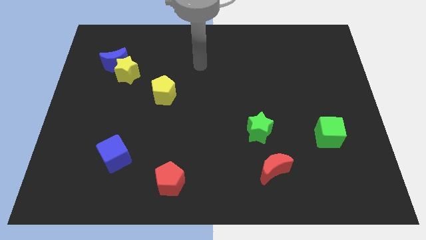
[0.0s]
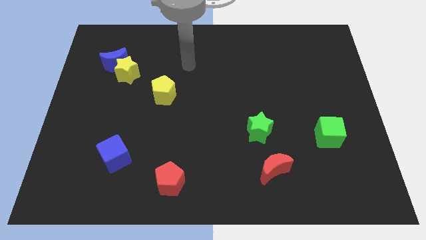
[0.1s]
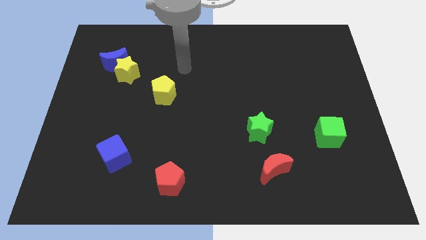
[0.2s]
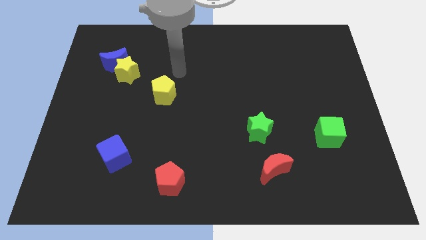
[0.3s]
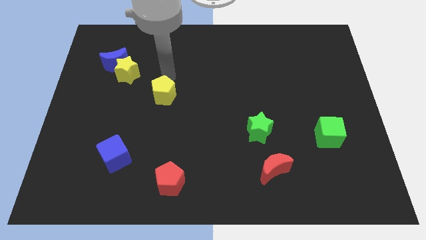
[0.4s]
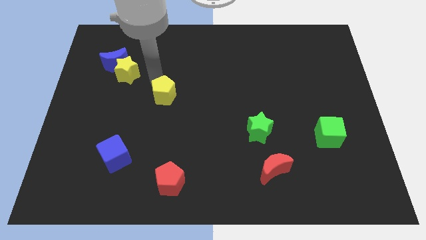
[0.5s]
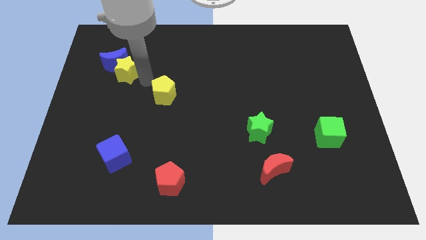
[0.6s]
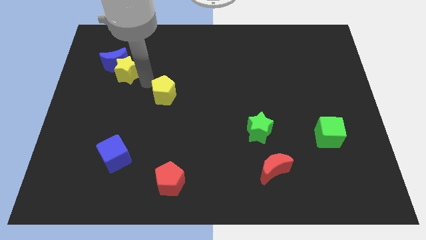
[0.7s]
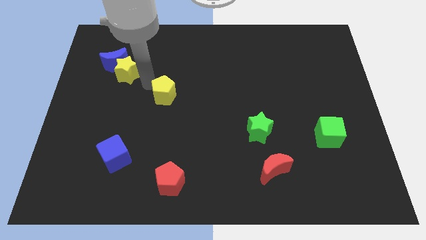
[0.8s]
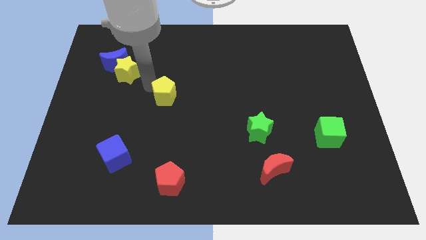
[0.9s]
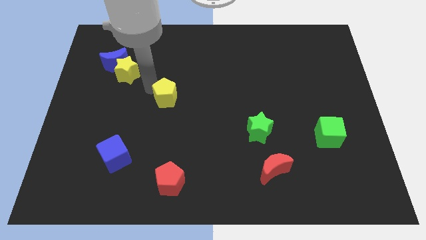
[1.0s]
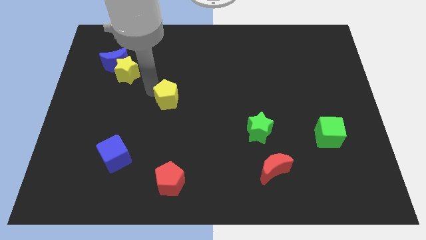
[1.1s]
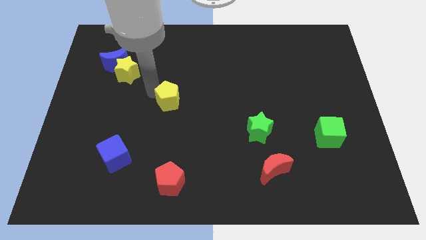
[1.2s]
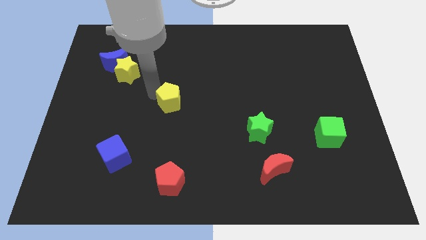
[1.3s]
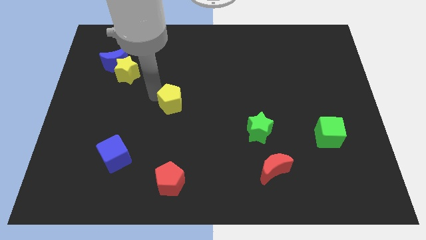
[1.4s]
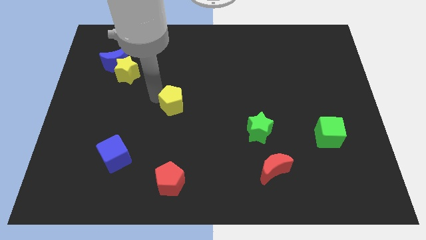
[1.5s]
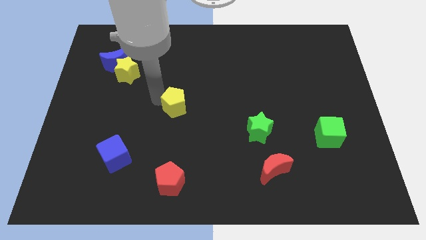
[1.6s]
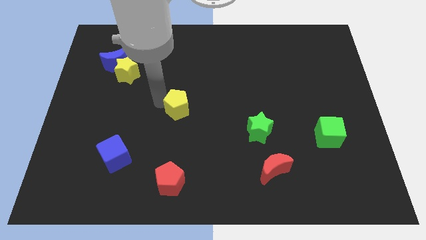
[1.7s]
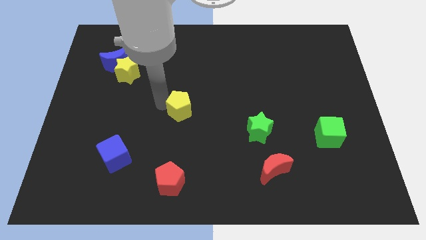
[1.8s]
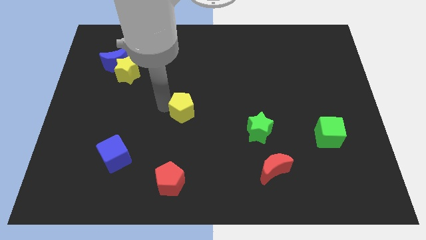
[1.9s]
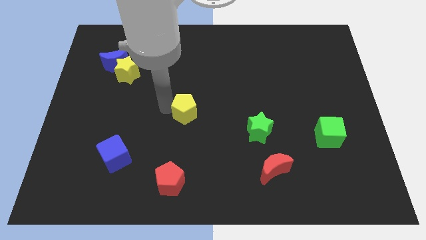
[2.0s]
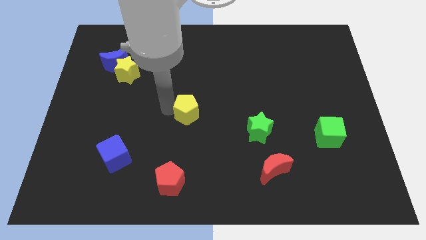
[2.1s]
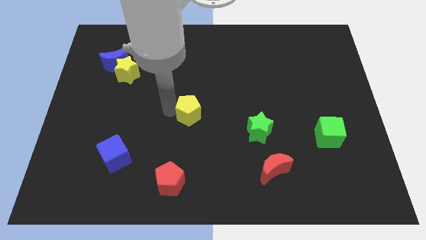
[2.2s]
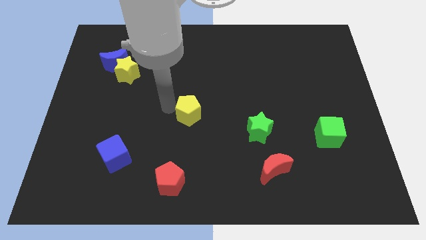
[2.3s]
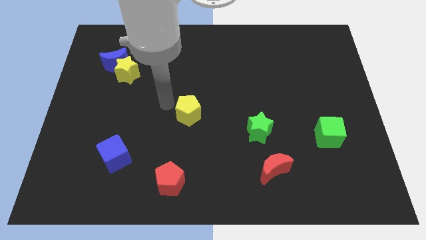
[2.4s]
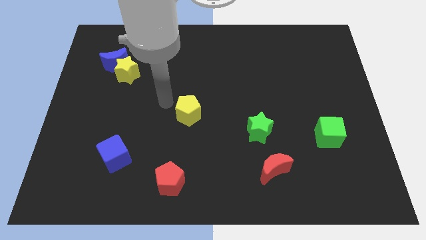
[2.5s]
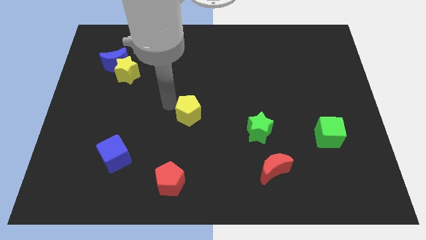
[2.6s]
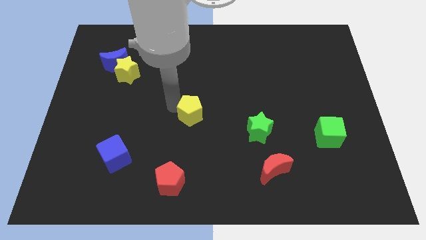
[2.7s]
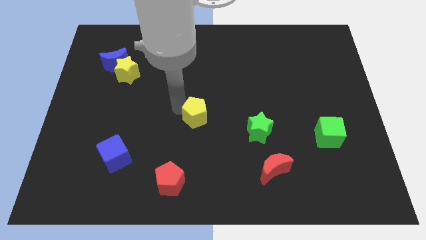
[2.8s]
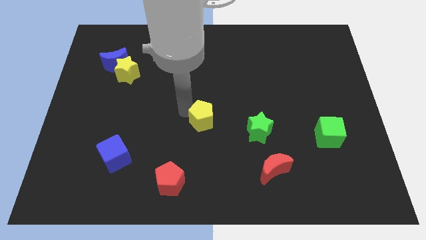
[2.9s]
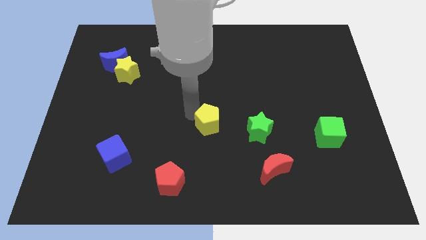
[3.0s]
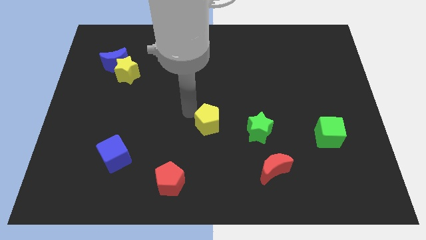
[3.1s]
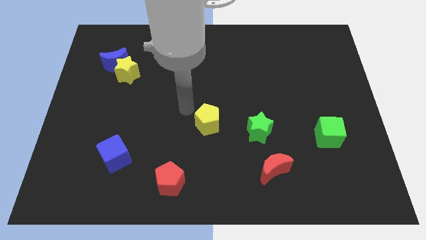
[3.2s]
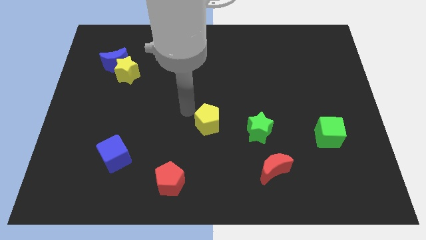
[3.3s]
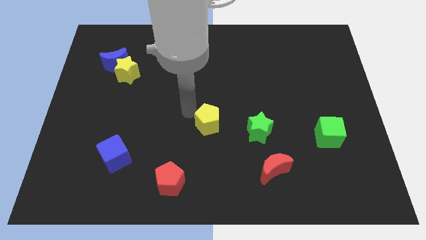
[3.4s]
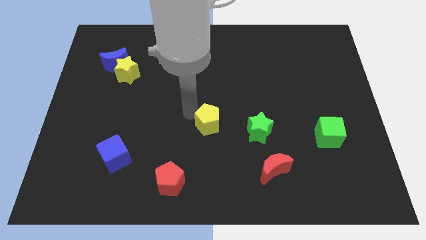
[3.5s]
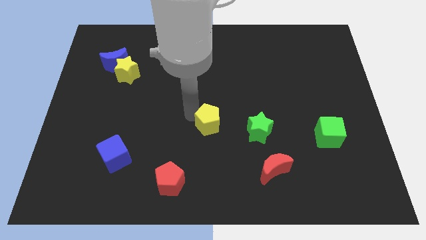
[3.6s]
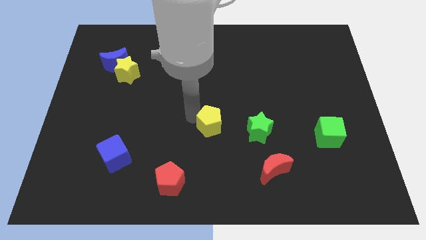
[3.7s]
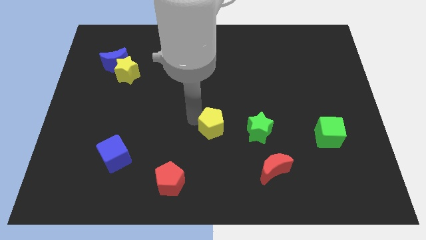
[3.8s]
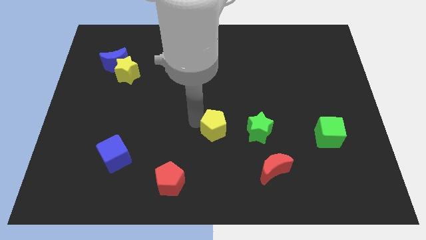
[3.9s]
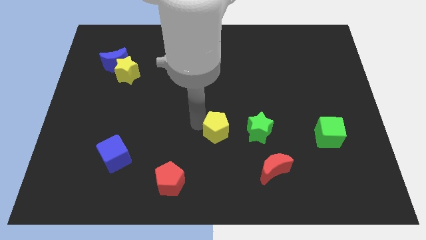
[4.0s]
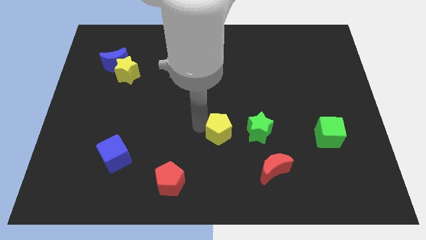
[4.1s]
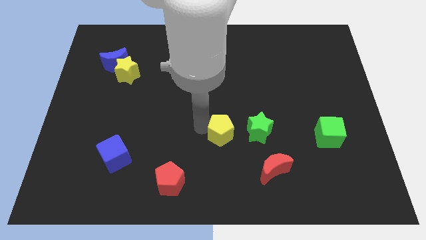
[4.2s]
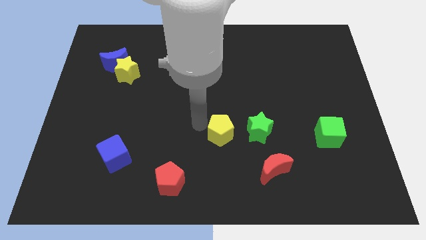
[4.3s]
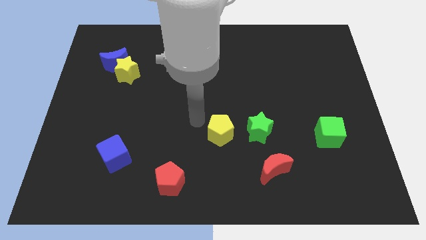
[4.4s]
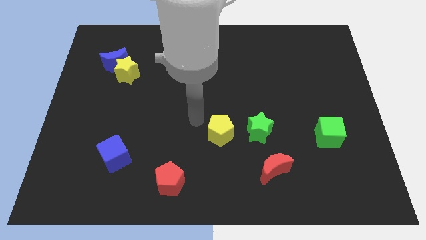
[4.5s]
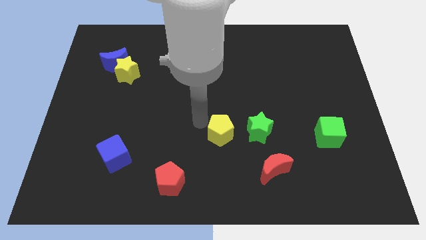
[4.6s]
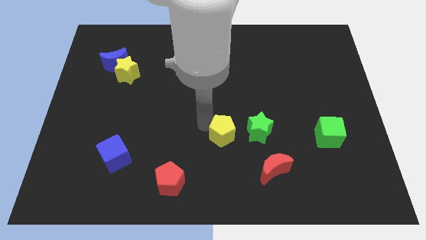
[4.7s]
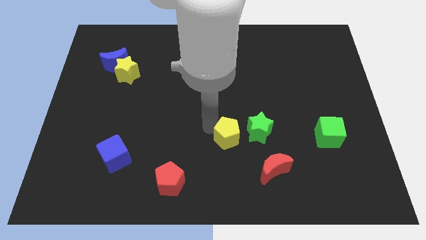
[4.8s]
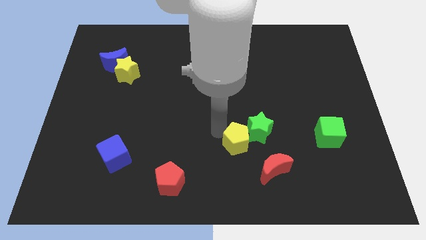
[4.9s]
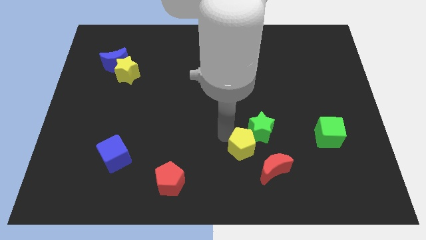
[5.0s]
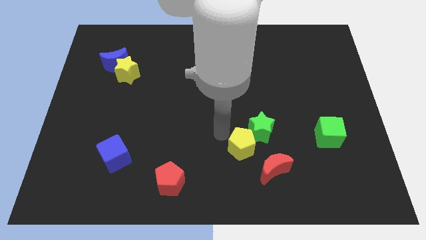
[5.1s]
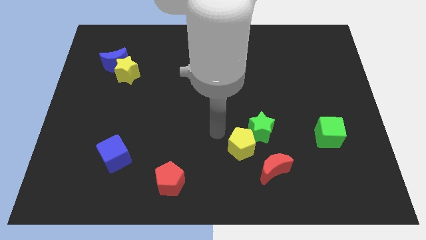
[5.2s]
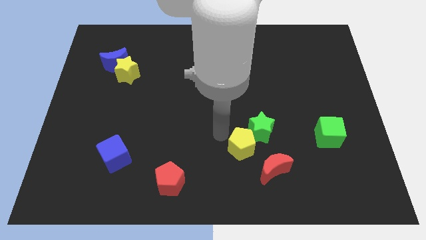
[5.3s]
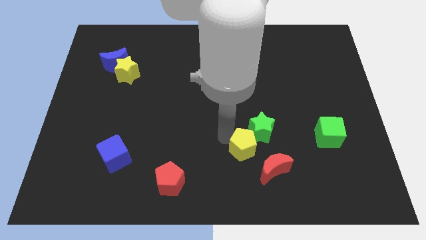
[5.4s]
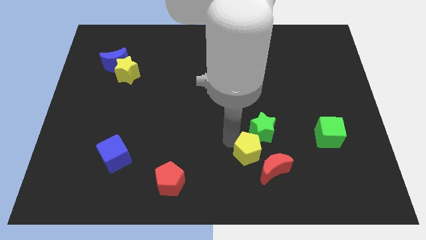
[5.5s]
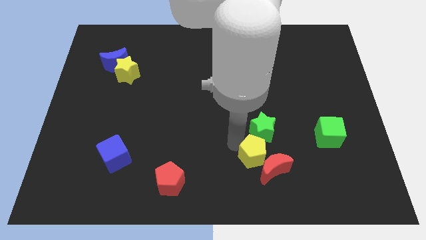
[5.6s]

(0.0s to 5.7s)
slide the yellow pentagon to the red moon

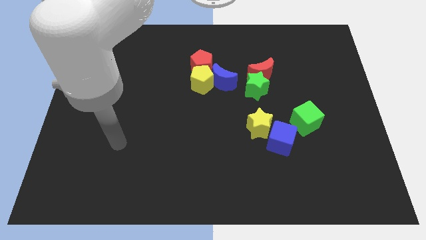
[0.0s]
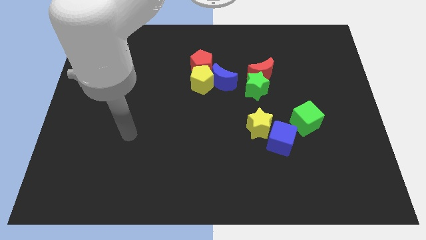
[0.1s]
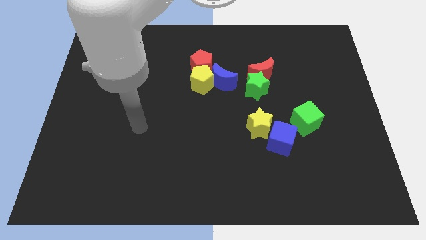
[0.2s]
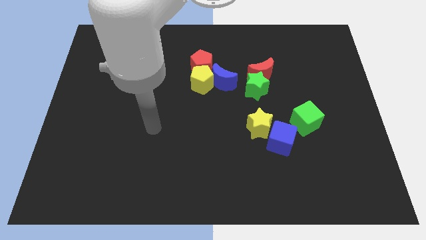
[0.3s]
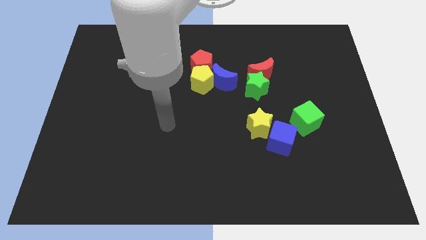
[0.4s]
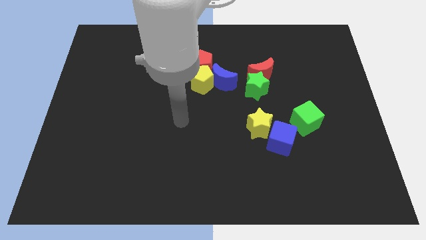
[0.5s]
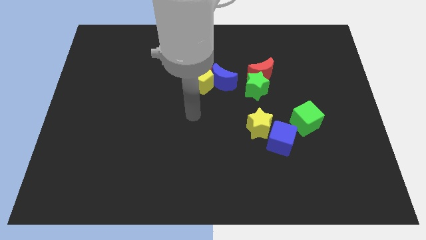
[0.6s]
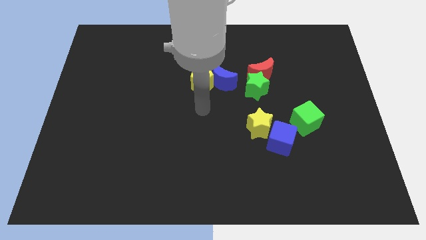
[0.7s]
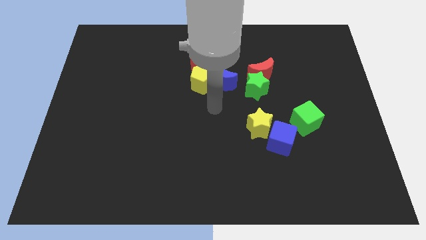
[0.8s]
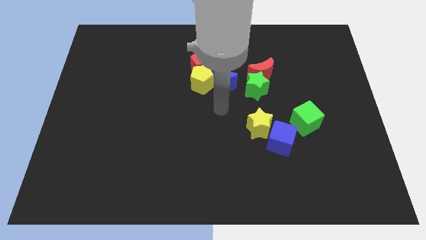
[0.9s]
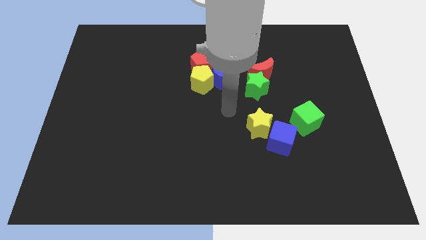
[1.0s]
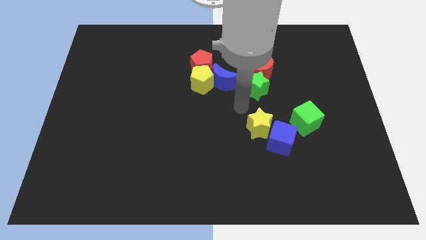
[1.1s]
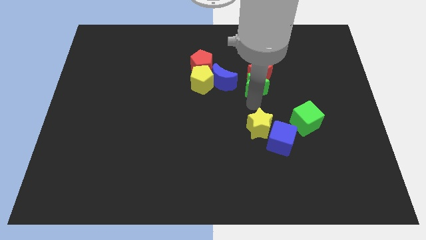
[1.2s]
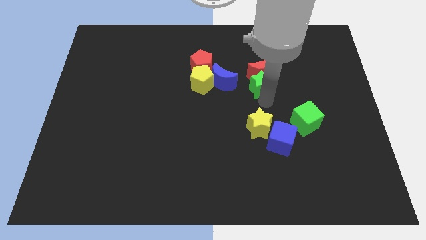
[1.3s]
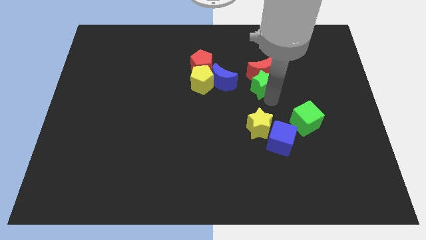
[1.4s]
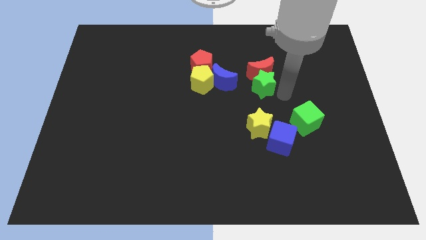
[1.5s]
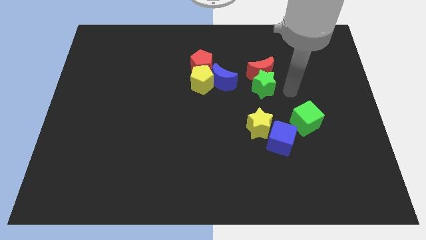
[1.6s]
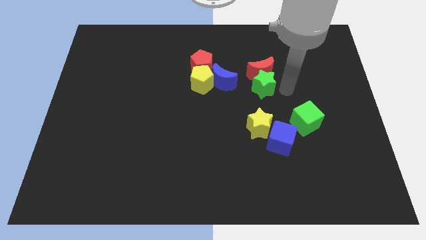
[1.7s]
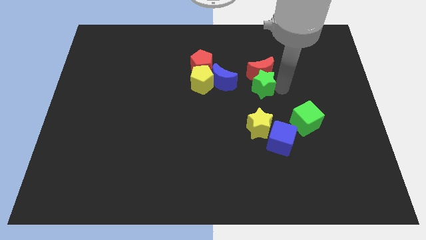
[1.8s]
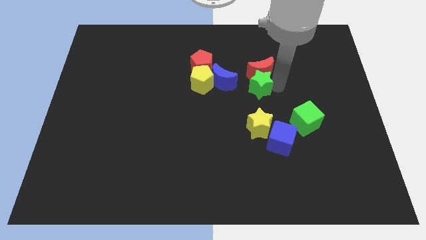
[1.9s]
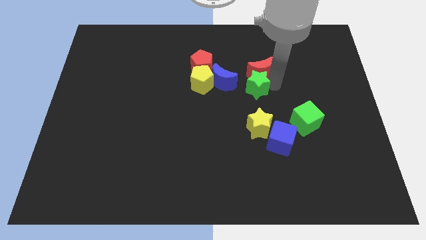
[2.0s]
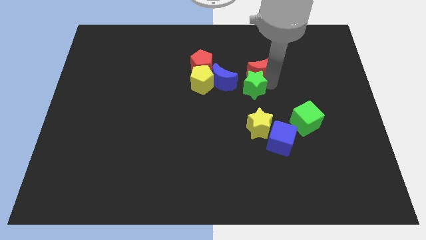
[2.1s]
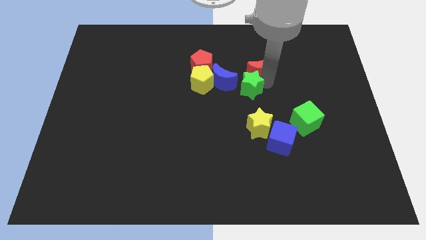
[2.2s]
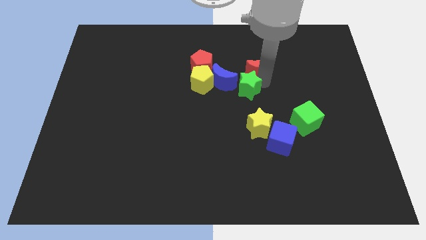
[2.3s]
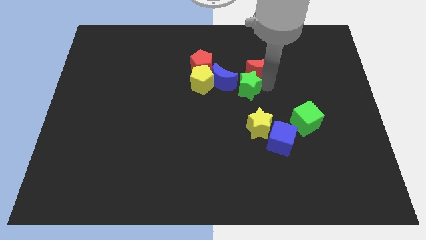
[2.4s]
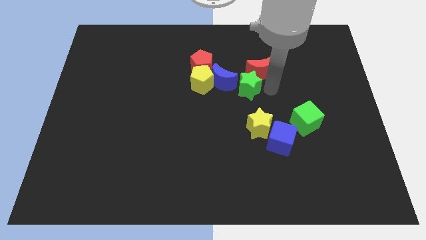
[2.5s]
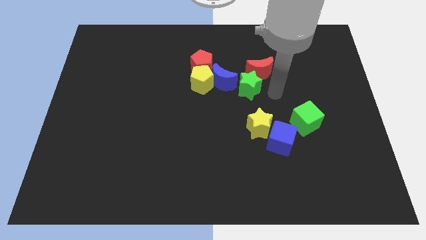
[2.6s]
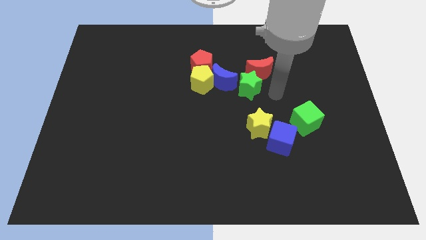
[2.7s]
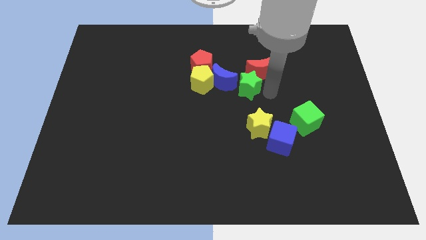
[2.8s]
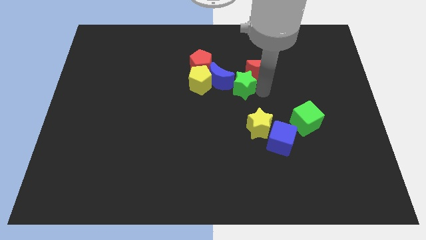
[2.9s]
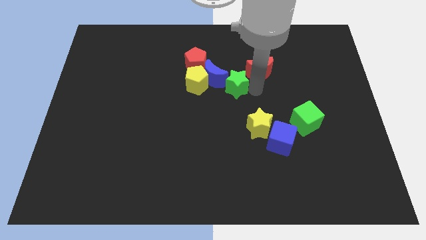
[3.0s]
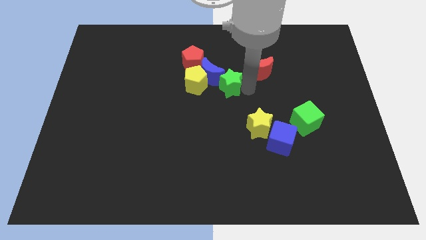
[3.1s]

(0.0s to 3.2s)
move the green star next to the blue moon
